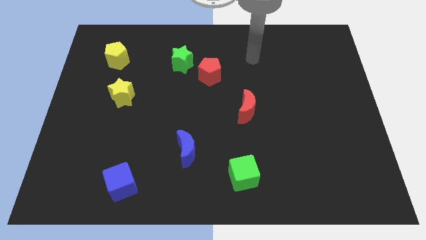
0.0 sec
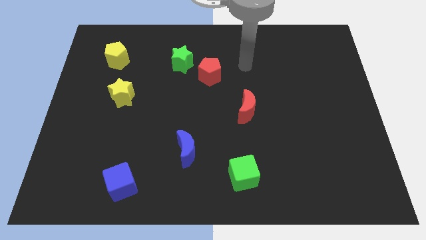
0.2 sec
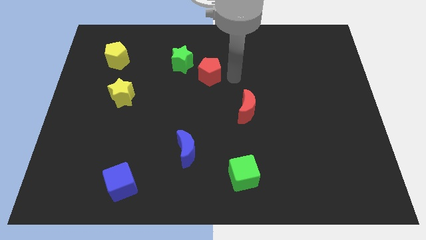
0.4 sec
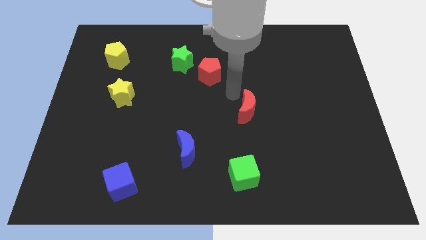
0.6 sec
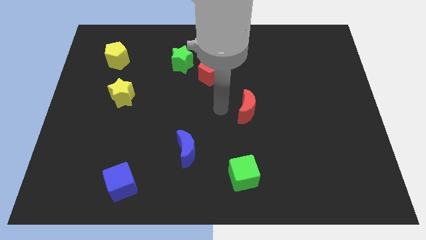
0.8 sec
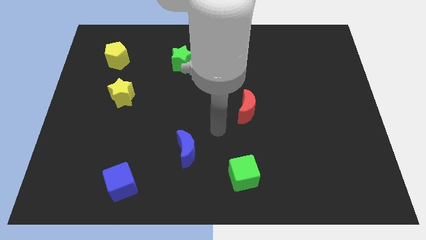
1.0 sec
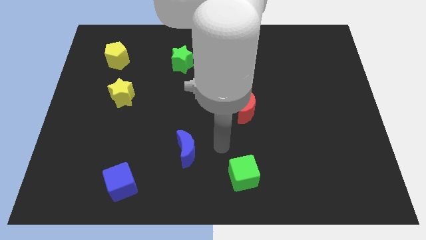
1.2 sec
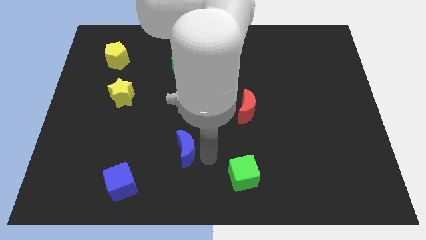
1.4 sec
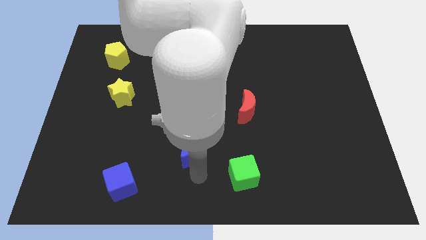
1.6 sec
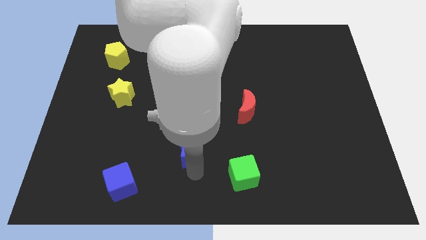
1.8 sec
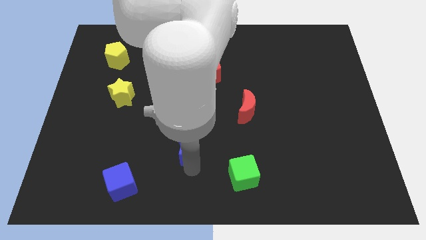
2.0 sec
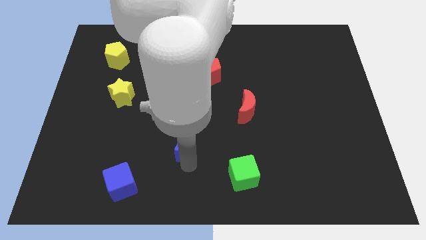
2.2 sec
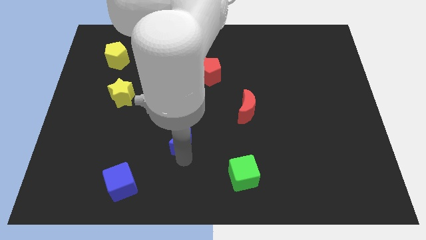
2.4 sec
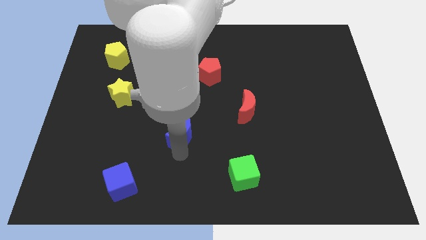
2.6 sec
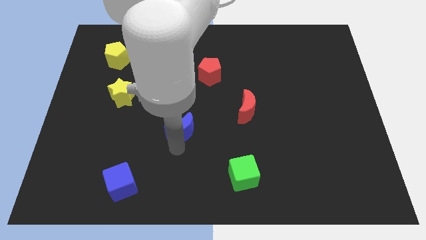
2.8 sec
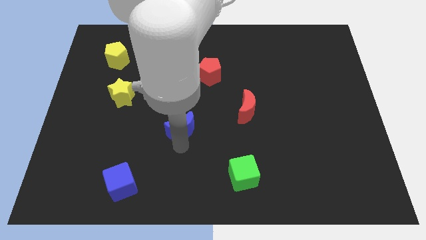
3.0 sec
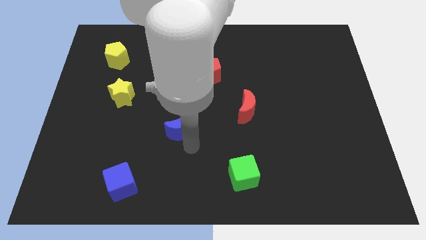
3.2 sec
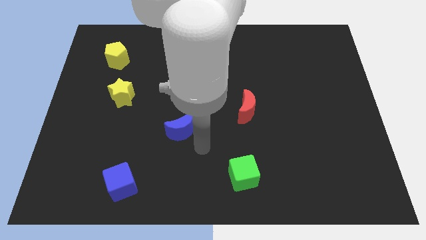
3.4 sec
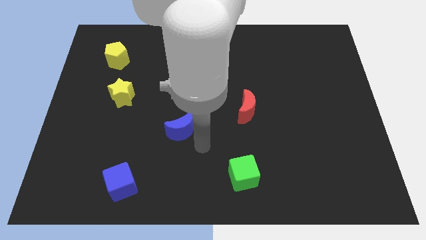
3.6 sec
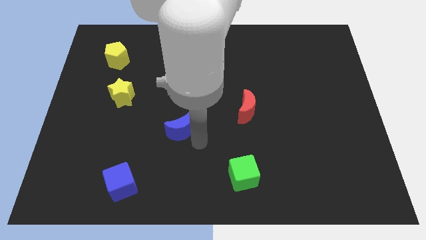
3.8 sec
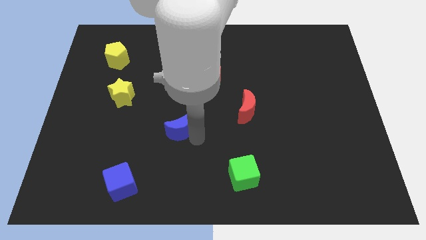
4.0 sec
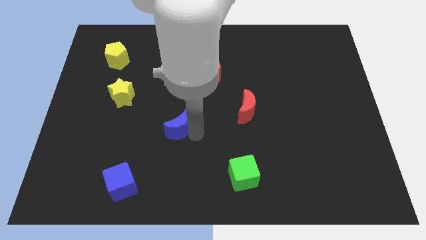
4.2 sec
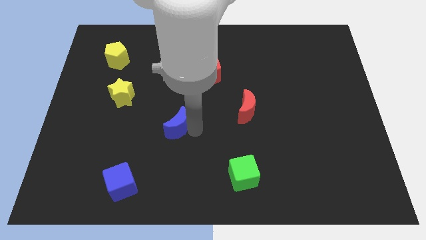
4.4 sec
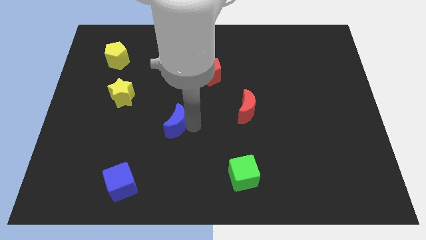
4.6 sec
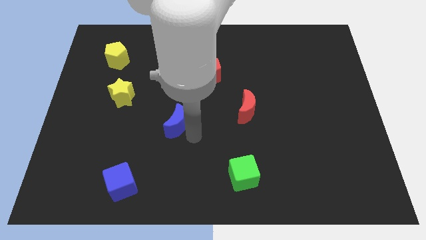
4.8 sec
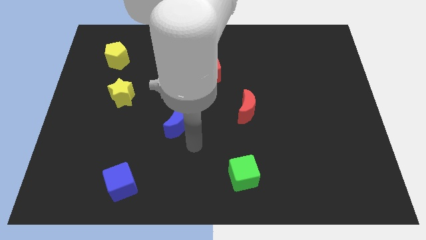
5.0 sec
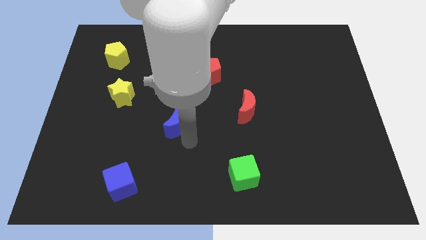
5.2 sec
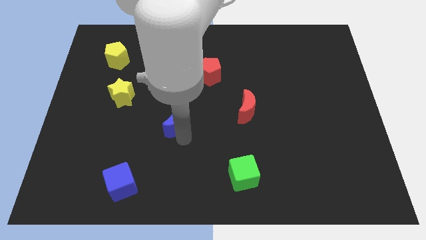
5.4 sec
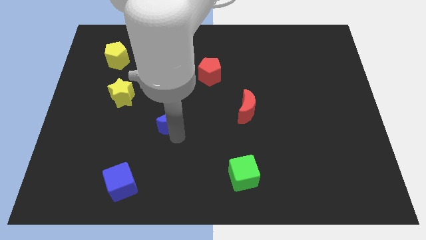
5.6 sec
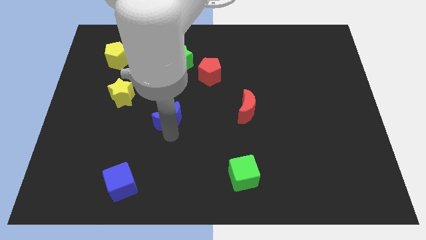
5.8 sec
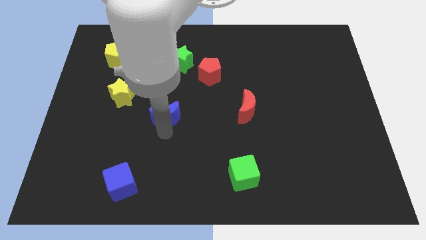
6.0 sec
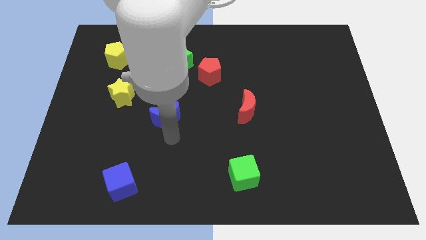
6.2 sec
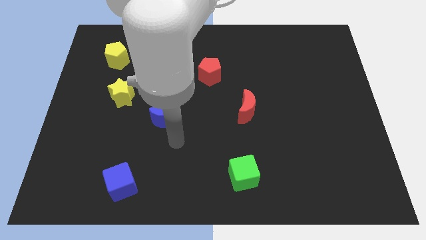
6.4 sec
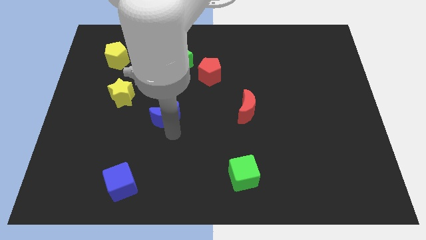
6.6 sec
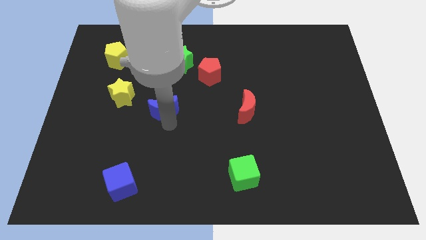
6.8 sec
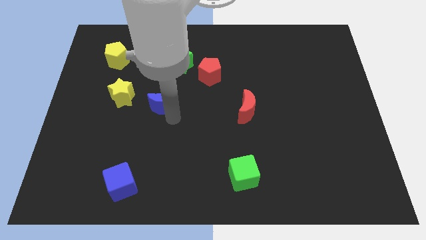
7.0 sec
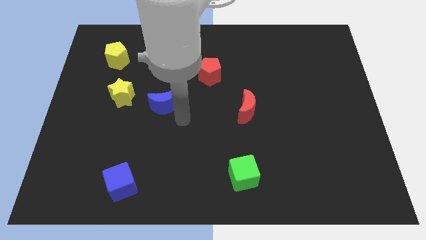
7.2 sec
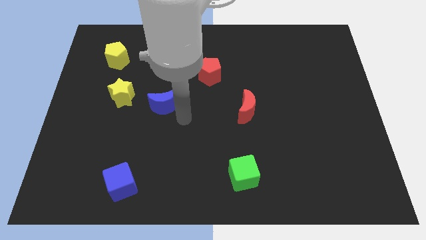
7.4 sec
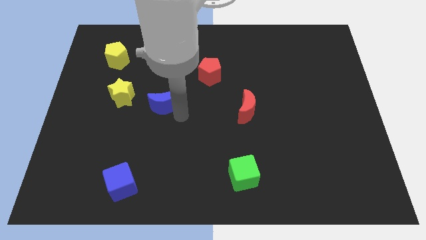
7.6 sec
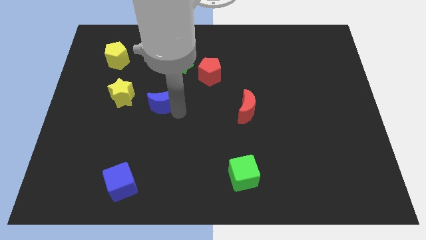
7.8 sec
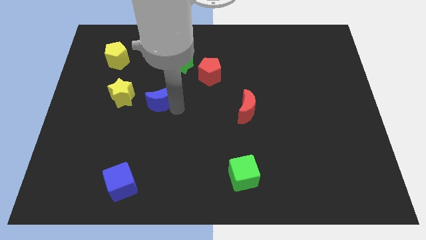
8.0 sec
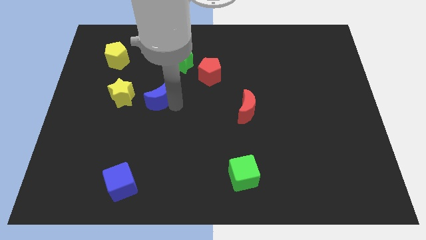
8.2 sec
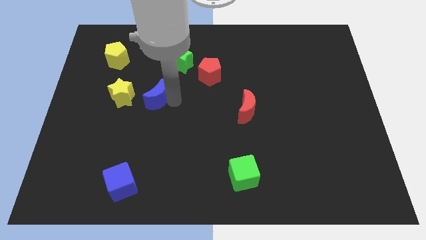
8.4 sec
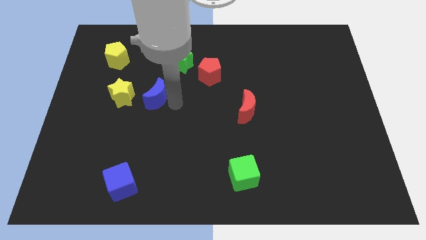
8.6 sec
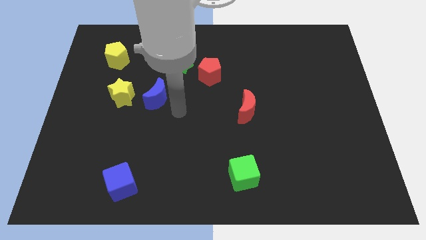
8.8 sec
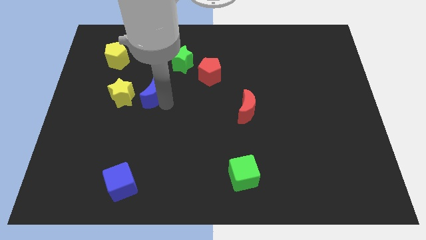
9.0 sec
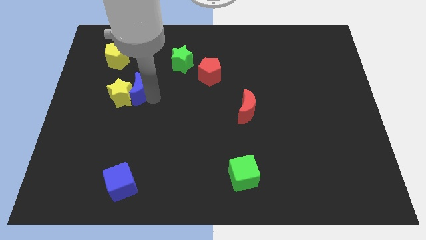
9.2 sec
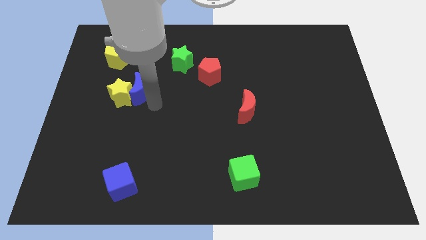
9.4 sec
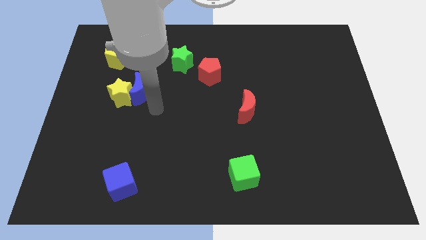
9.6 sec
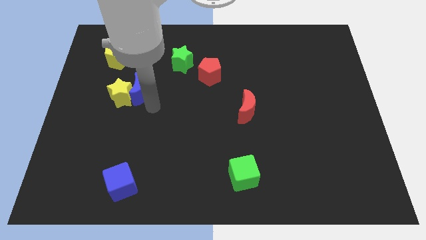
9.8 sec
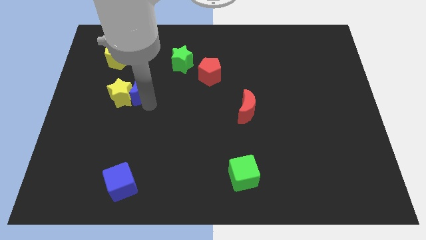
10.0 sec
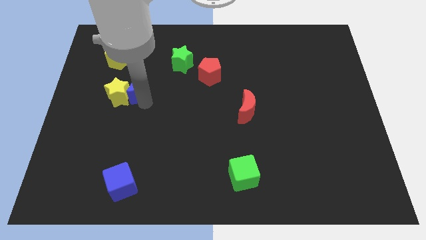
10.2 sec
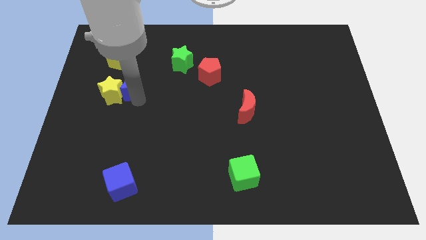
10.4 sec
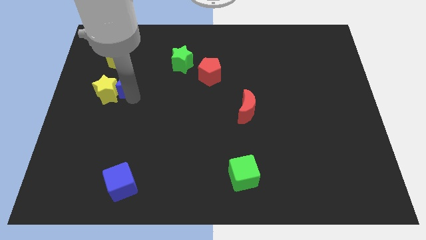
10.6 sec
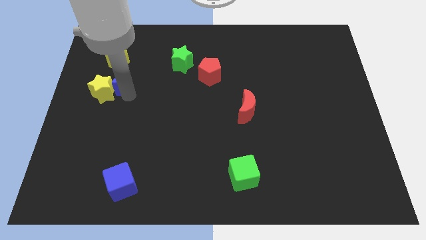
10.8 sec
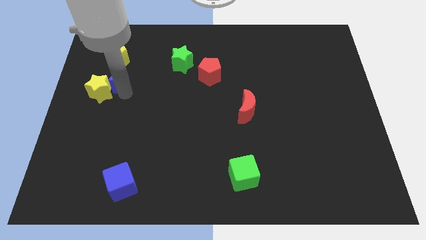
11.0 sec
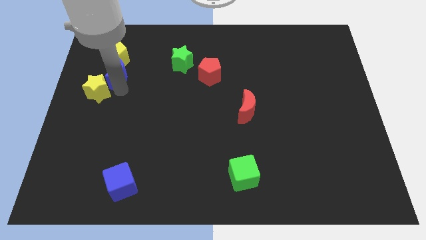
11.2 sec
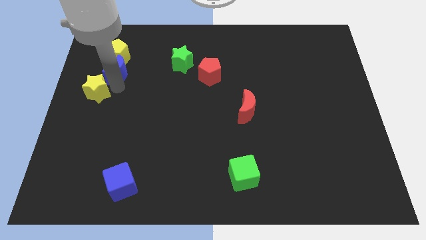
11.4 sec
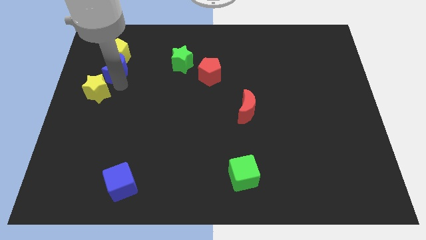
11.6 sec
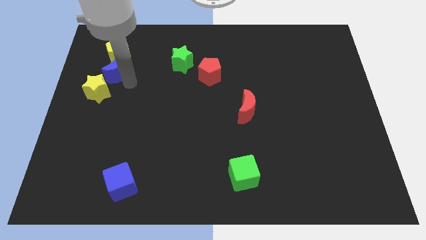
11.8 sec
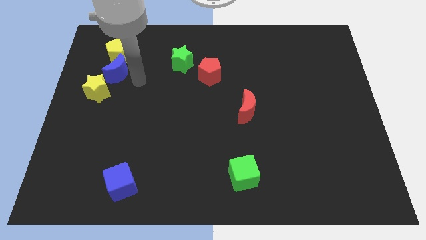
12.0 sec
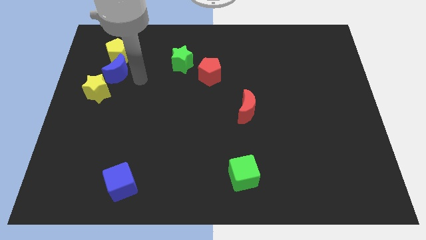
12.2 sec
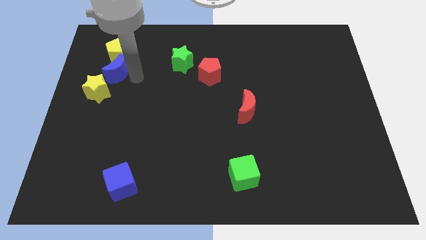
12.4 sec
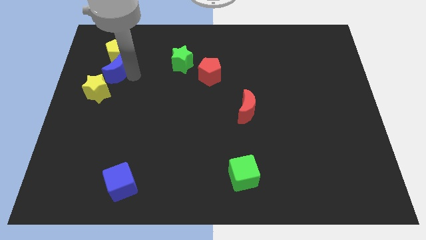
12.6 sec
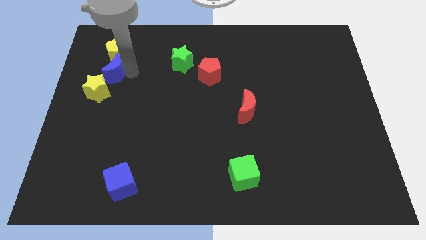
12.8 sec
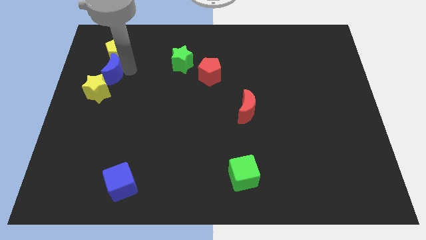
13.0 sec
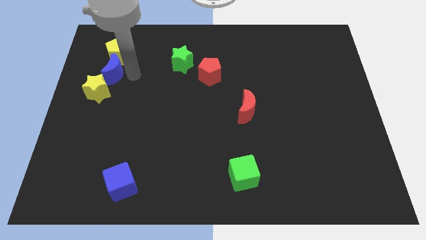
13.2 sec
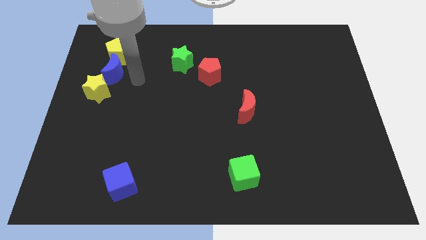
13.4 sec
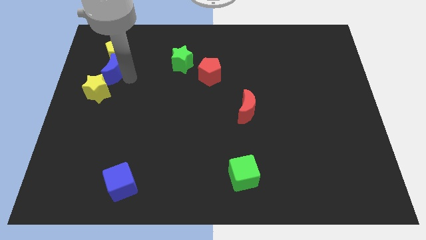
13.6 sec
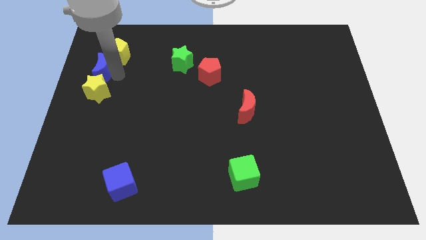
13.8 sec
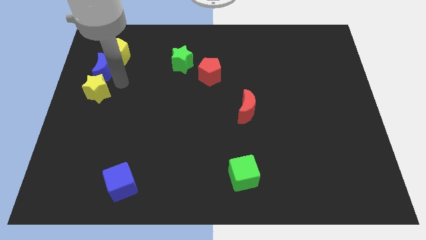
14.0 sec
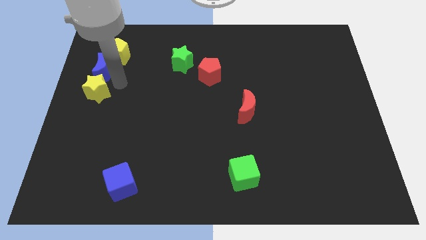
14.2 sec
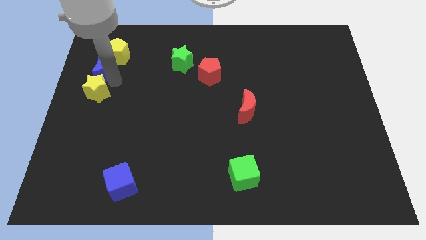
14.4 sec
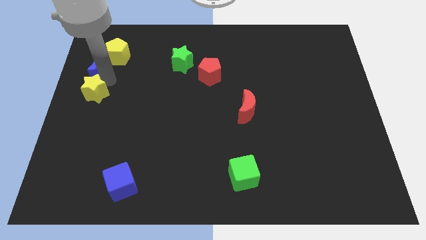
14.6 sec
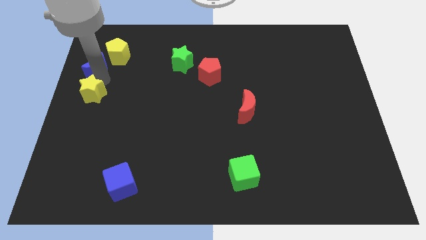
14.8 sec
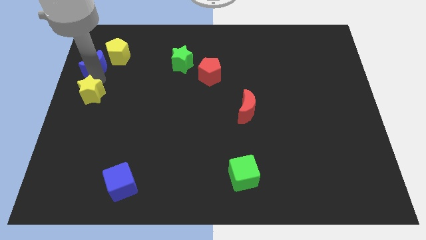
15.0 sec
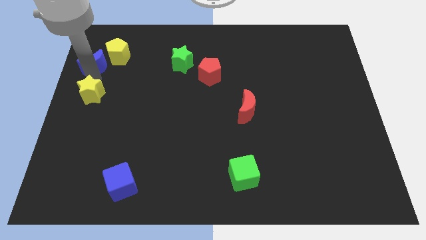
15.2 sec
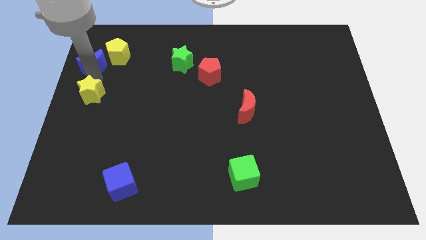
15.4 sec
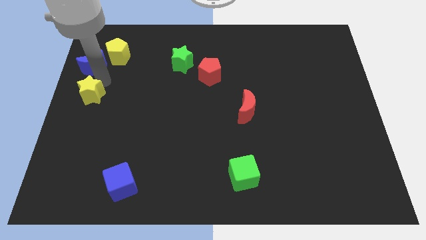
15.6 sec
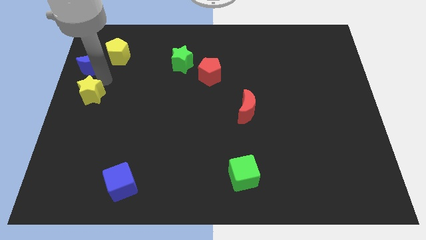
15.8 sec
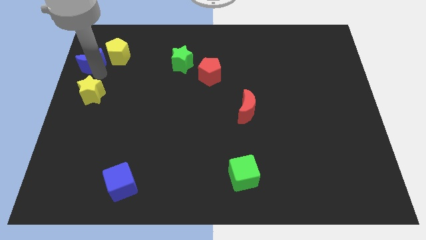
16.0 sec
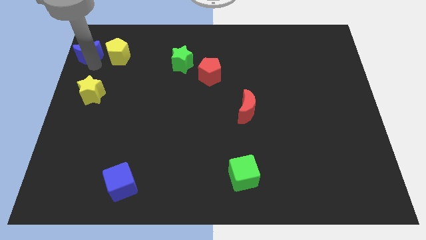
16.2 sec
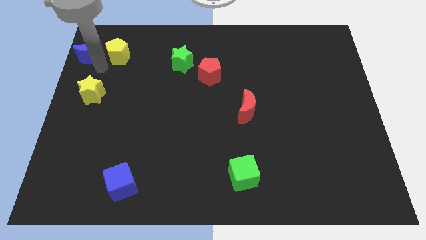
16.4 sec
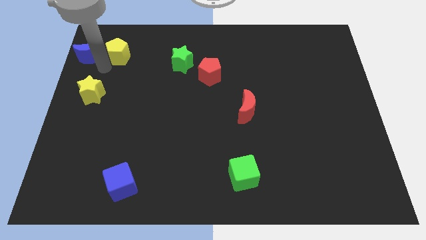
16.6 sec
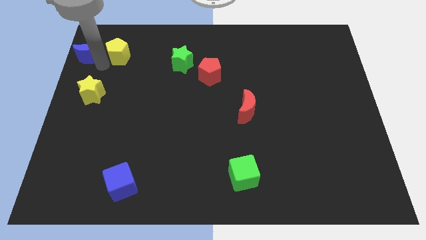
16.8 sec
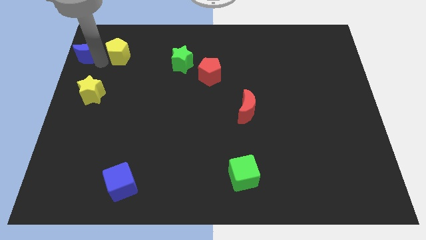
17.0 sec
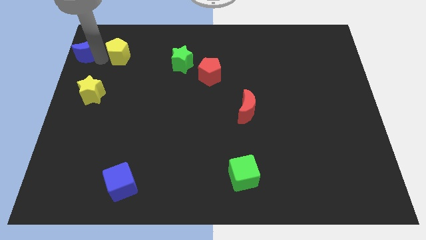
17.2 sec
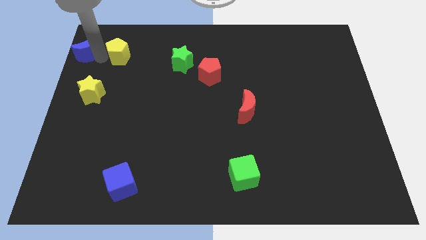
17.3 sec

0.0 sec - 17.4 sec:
move the blue moon to the top left of the board
